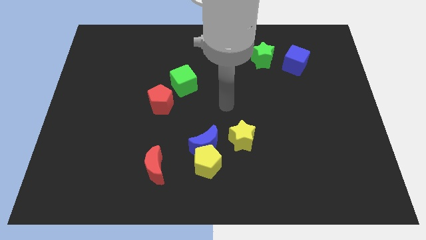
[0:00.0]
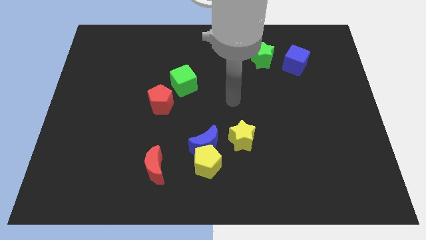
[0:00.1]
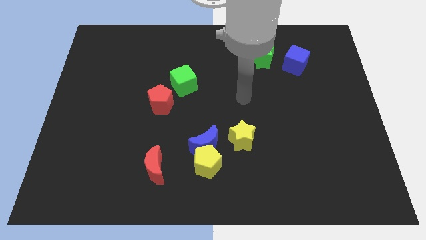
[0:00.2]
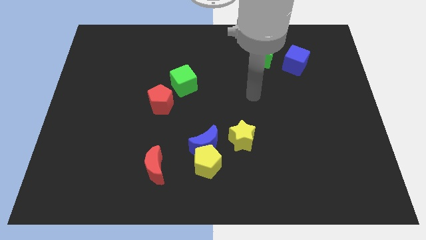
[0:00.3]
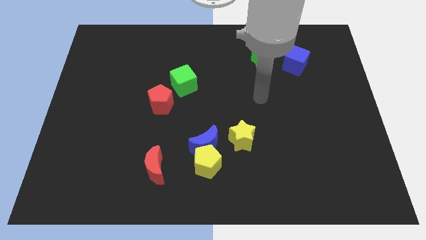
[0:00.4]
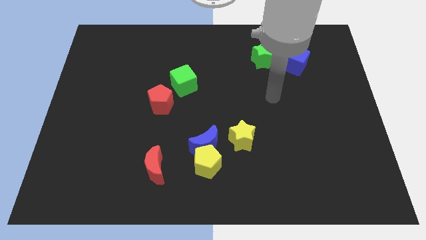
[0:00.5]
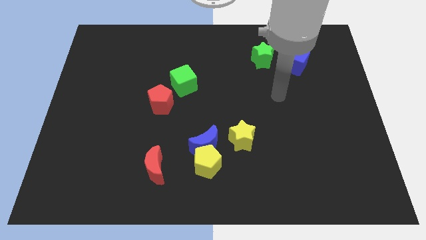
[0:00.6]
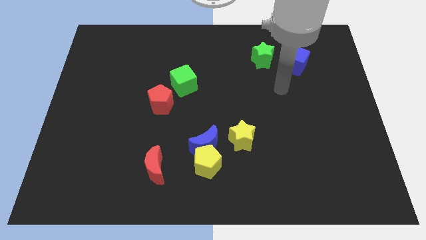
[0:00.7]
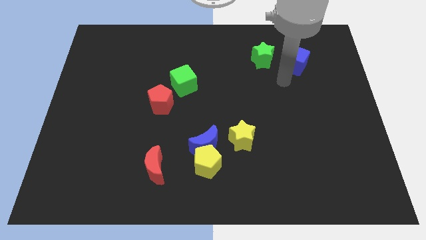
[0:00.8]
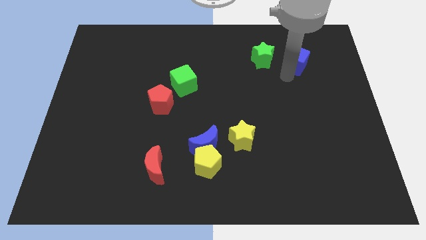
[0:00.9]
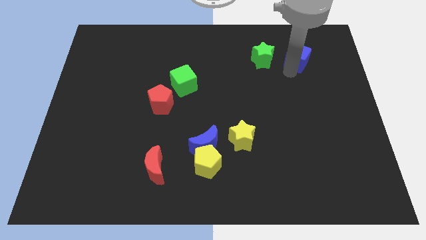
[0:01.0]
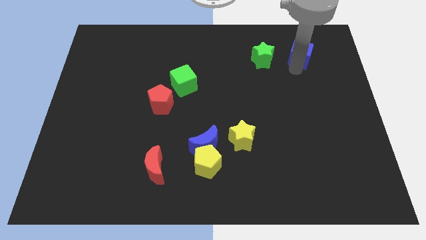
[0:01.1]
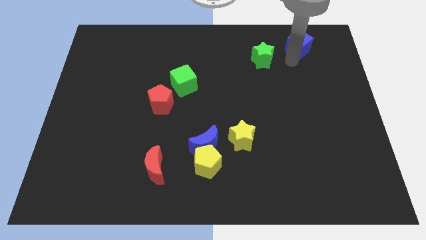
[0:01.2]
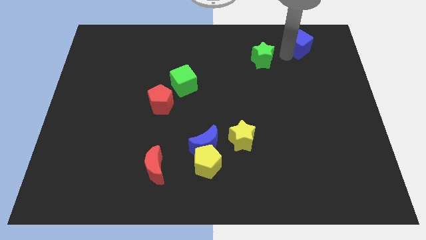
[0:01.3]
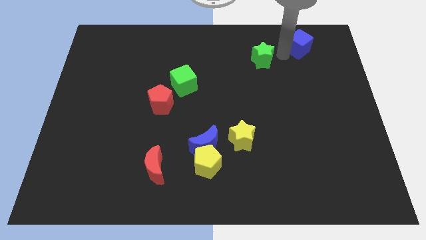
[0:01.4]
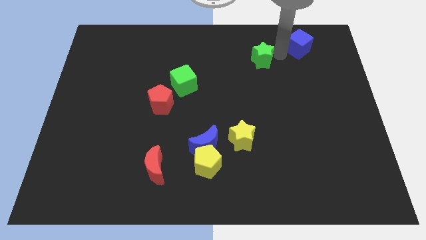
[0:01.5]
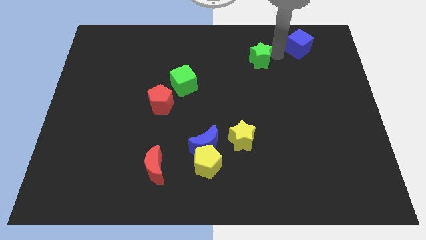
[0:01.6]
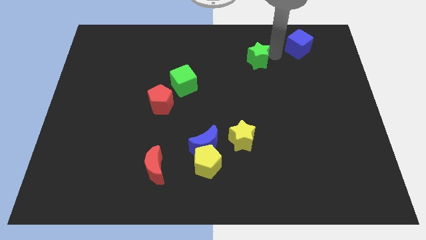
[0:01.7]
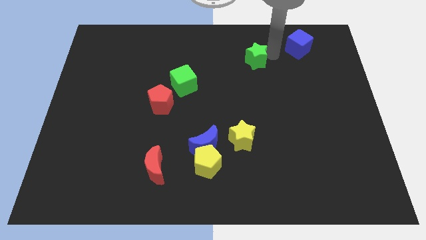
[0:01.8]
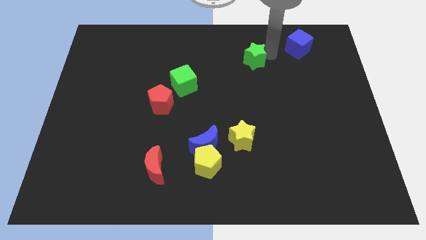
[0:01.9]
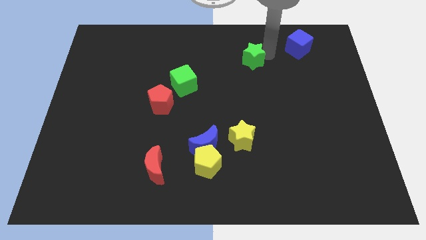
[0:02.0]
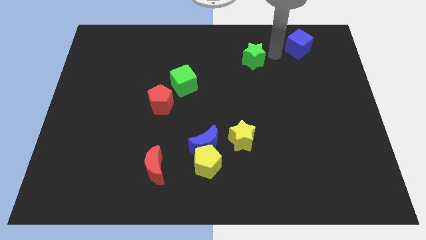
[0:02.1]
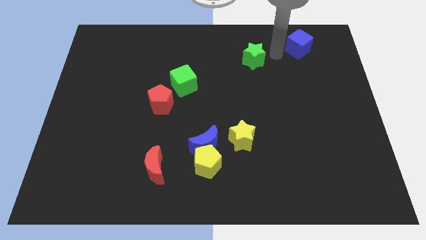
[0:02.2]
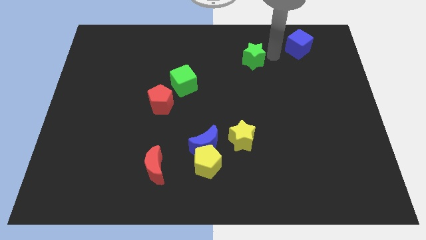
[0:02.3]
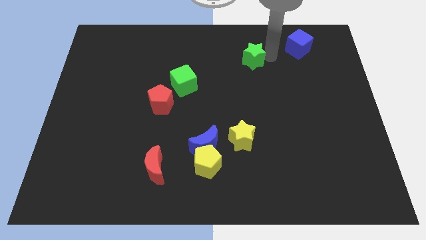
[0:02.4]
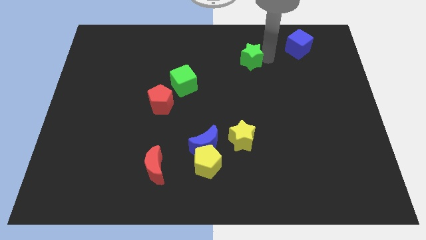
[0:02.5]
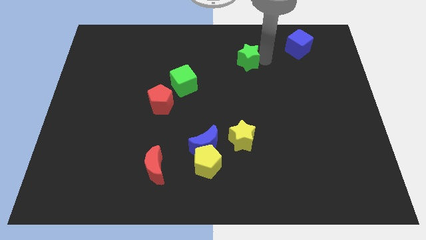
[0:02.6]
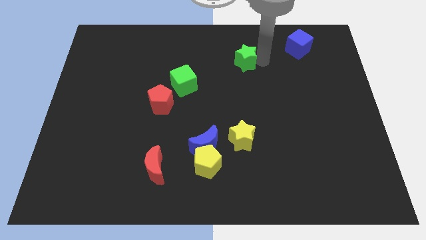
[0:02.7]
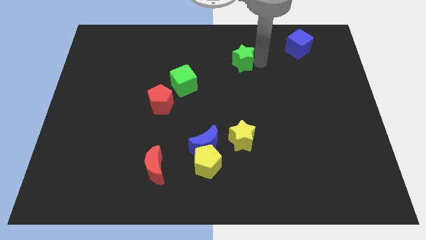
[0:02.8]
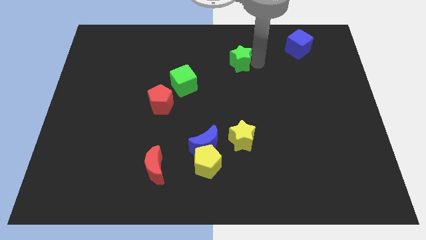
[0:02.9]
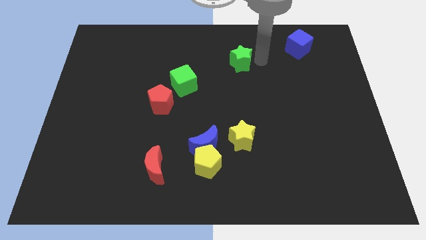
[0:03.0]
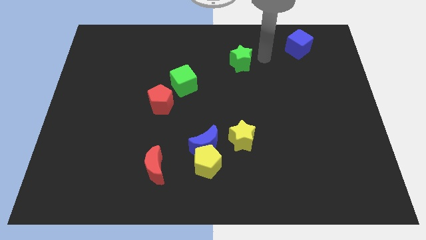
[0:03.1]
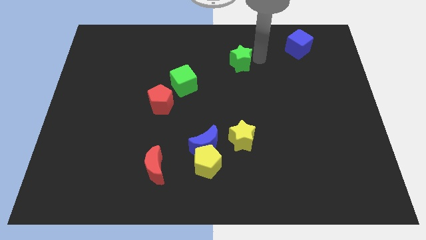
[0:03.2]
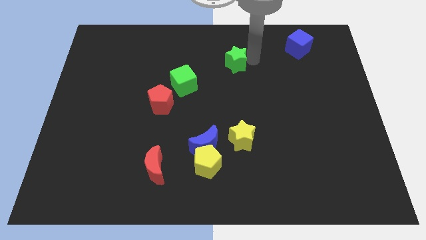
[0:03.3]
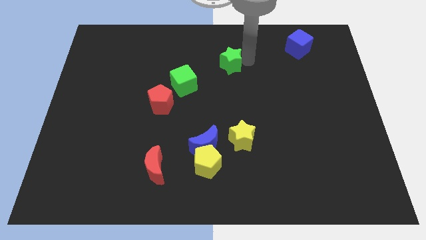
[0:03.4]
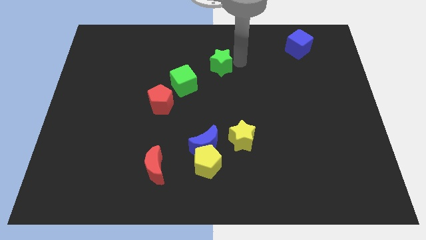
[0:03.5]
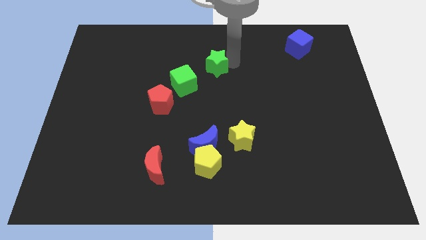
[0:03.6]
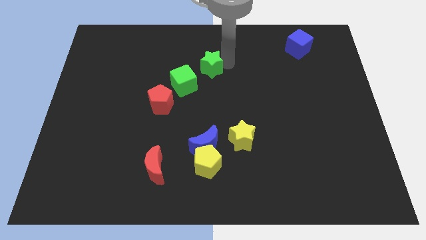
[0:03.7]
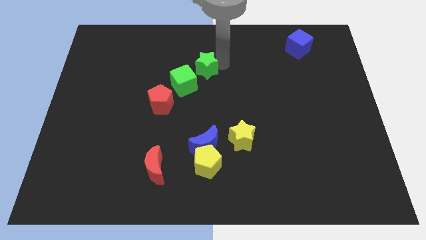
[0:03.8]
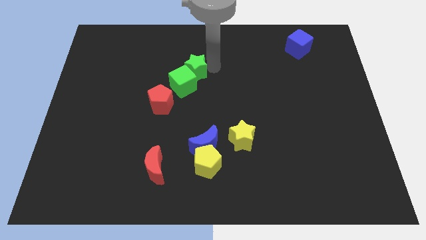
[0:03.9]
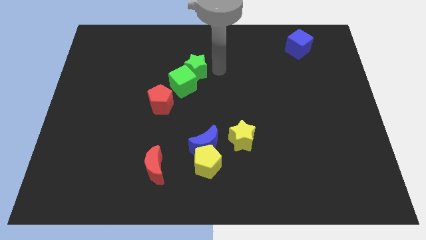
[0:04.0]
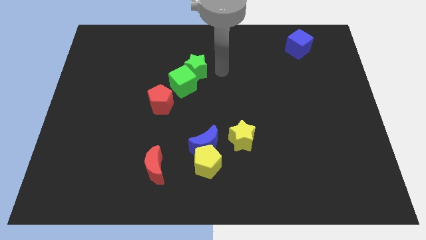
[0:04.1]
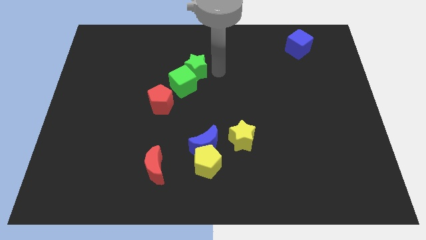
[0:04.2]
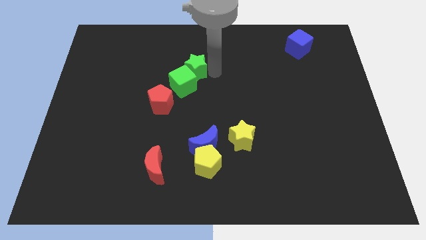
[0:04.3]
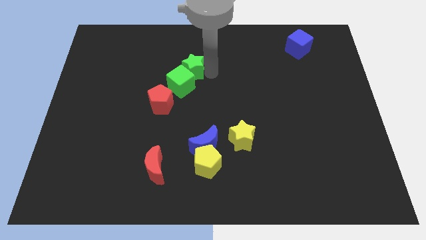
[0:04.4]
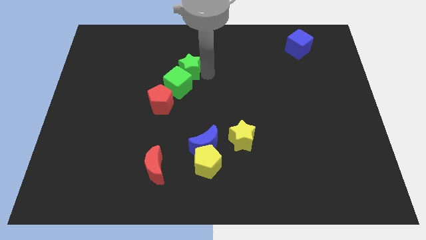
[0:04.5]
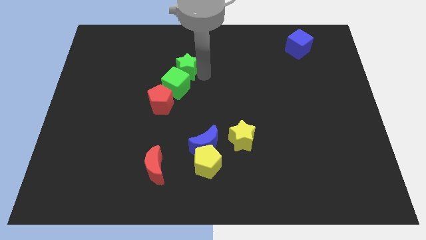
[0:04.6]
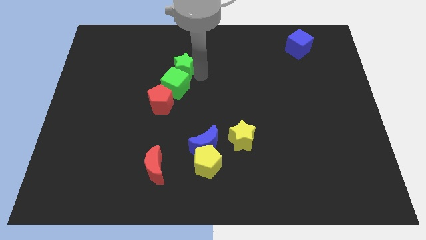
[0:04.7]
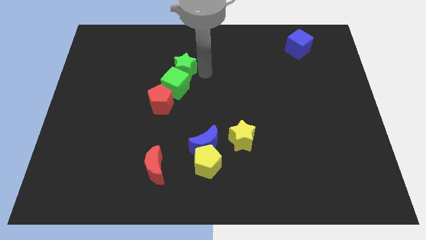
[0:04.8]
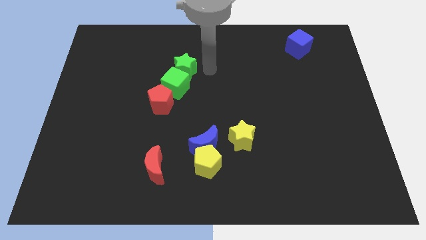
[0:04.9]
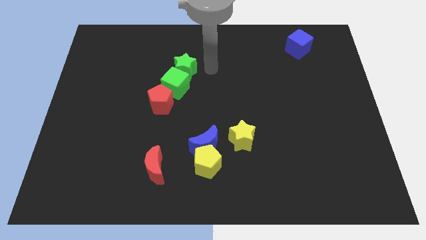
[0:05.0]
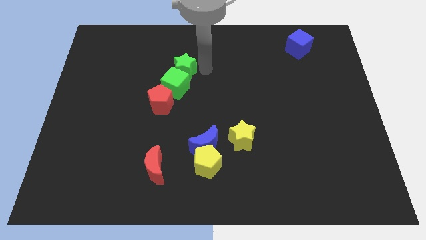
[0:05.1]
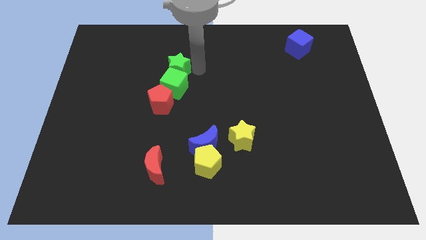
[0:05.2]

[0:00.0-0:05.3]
push the green star diagonally up and to the left of the green cube

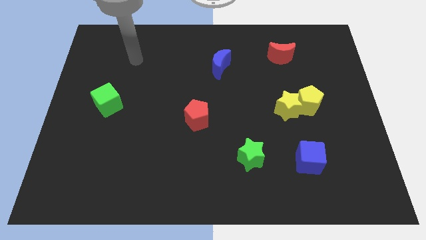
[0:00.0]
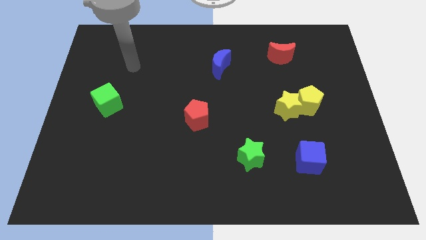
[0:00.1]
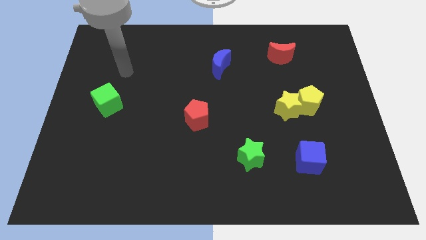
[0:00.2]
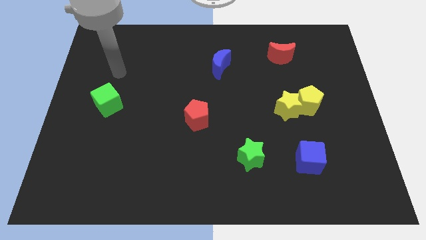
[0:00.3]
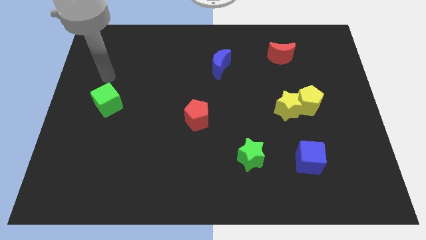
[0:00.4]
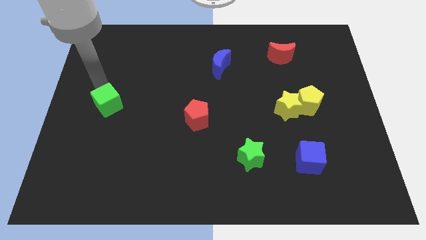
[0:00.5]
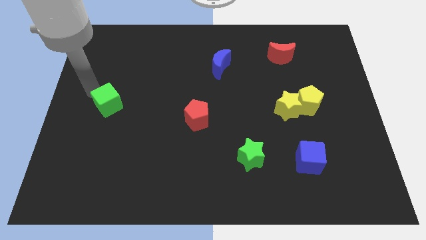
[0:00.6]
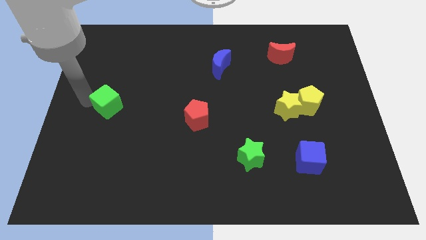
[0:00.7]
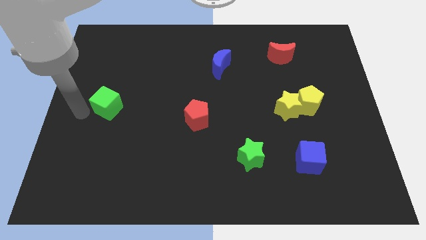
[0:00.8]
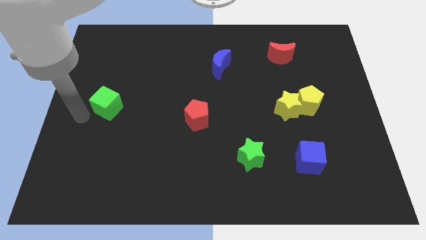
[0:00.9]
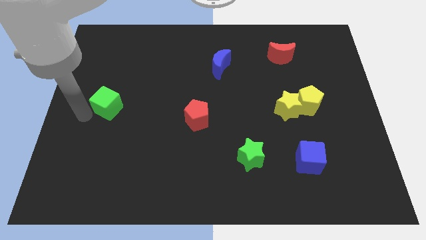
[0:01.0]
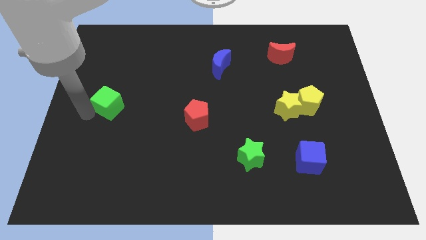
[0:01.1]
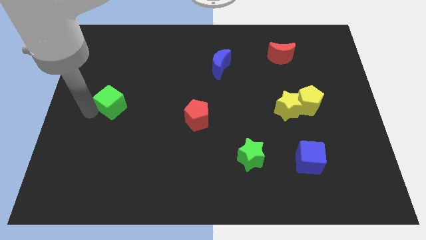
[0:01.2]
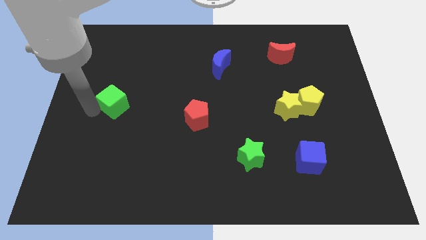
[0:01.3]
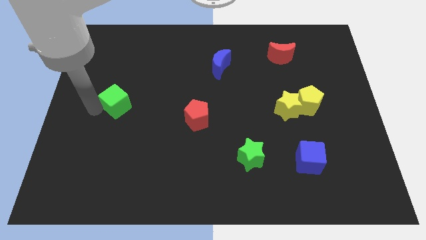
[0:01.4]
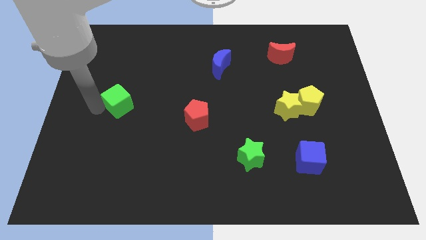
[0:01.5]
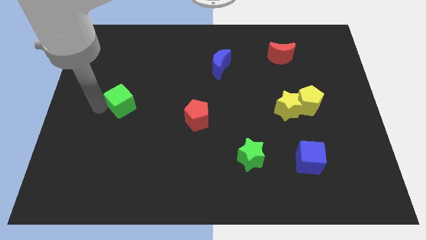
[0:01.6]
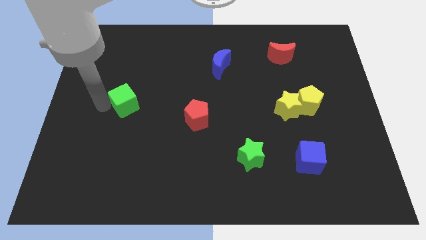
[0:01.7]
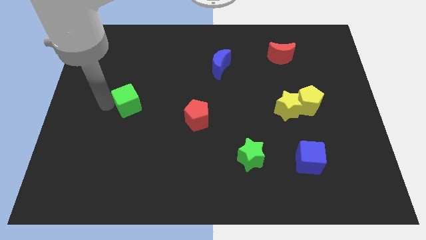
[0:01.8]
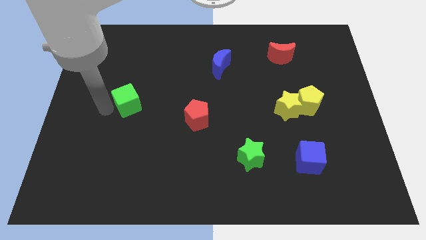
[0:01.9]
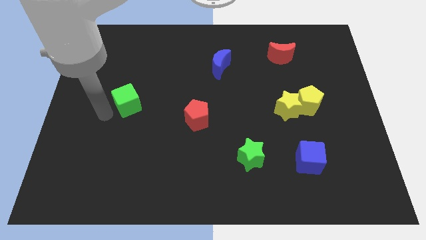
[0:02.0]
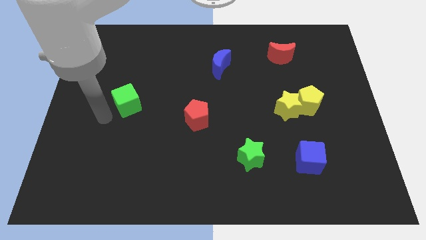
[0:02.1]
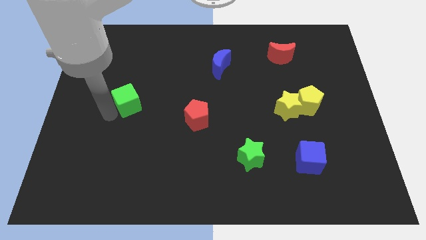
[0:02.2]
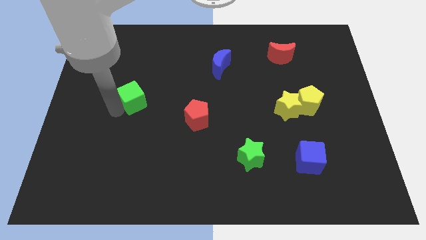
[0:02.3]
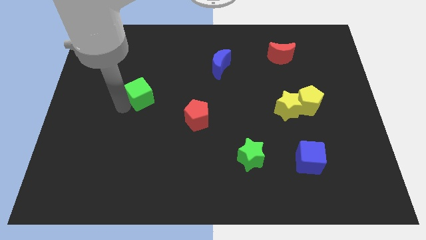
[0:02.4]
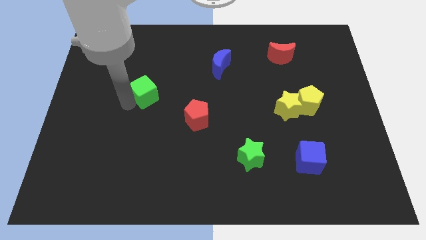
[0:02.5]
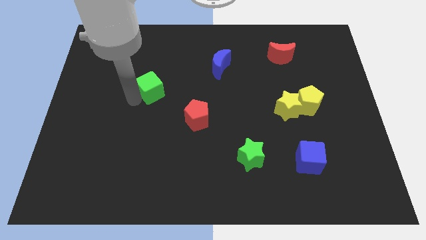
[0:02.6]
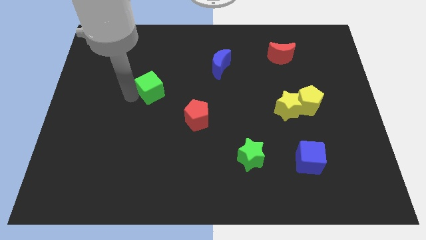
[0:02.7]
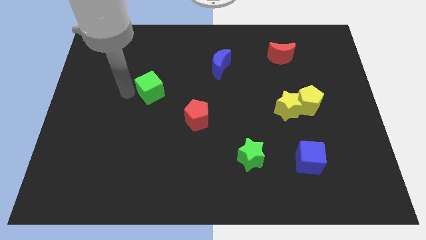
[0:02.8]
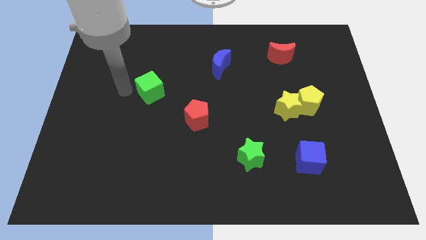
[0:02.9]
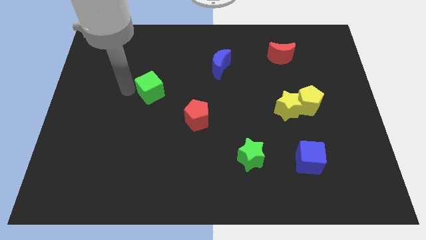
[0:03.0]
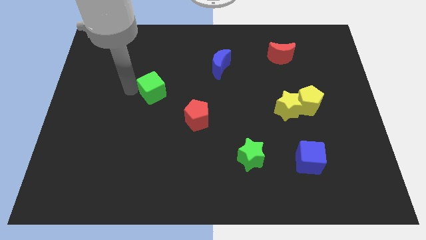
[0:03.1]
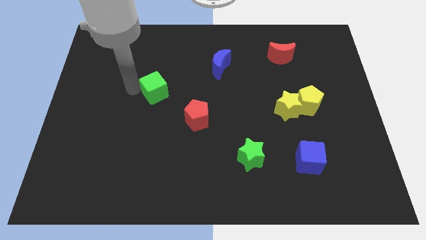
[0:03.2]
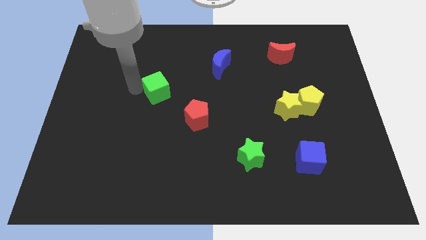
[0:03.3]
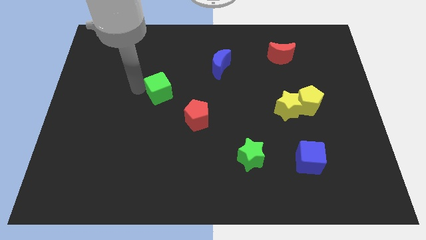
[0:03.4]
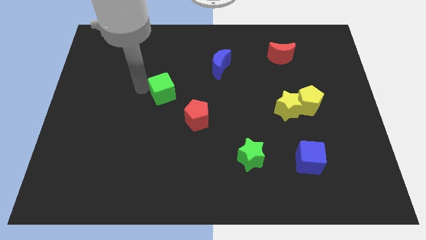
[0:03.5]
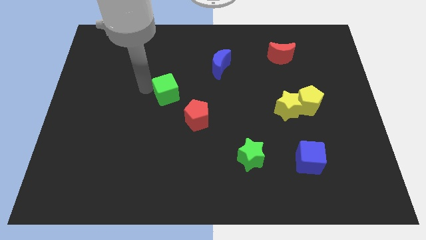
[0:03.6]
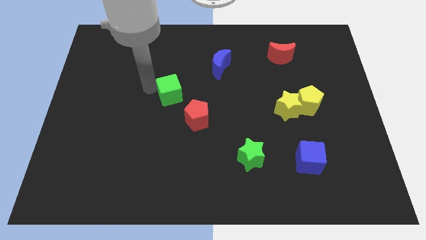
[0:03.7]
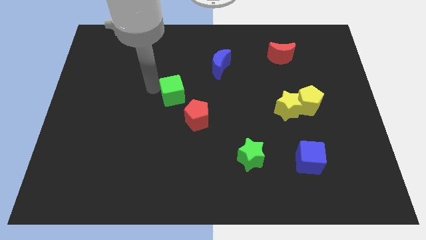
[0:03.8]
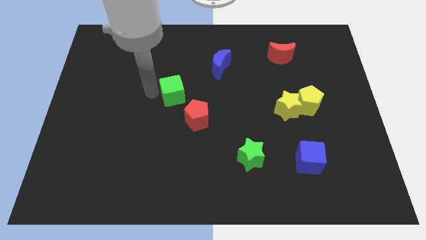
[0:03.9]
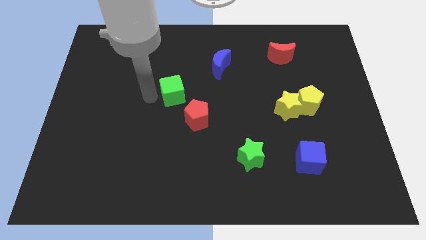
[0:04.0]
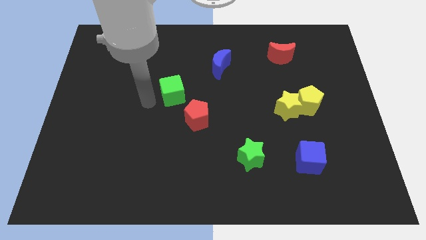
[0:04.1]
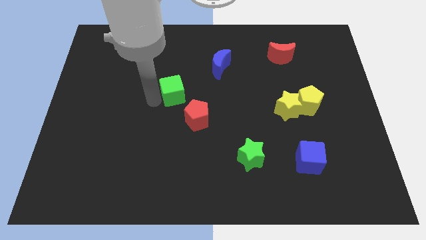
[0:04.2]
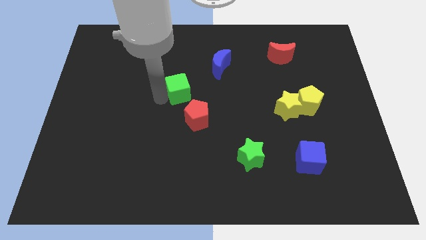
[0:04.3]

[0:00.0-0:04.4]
move the green cube to the top of the red pentagon
